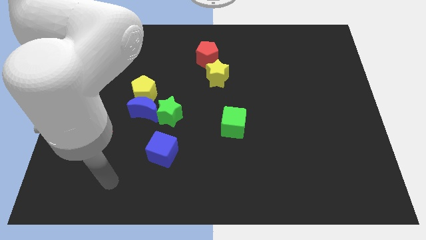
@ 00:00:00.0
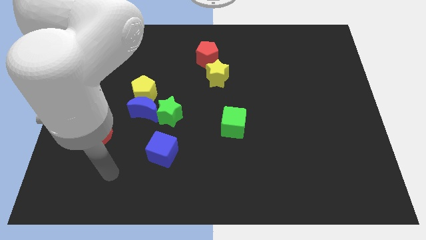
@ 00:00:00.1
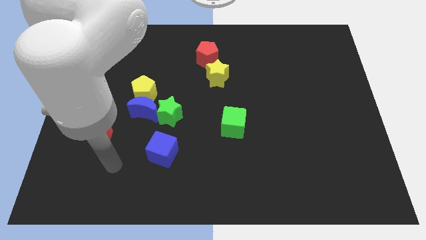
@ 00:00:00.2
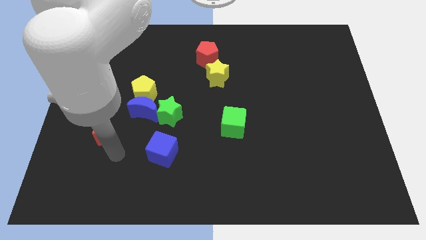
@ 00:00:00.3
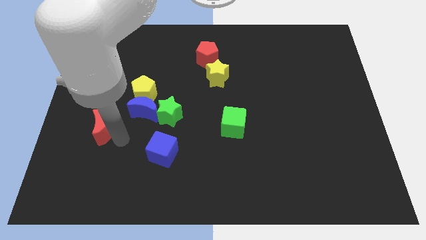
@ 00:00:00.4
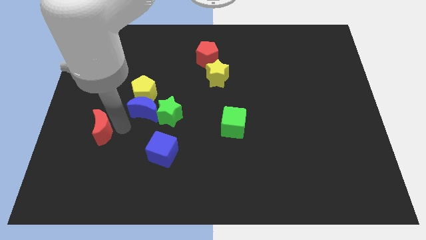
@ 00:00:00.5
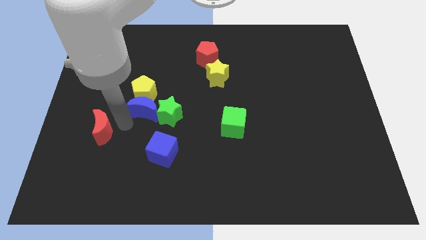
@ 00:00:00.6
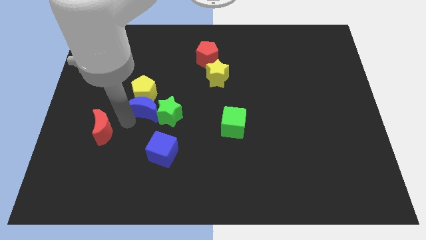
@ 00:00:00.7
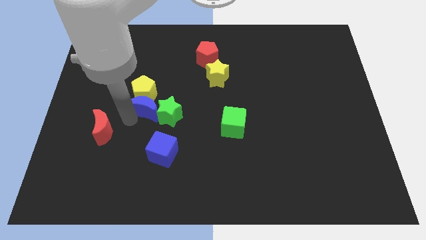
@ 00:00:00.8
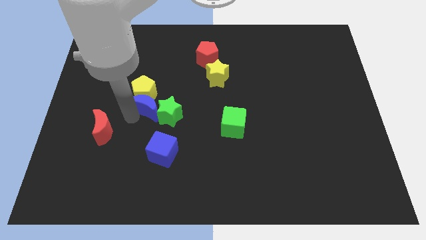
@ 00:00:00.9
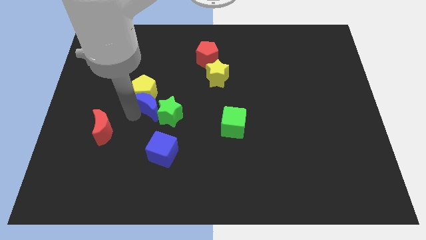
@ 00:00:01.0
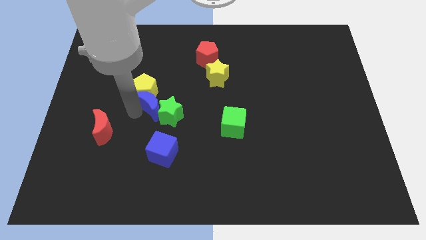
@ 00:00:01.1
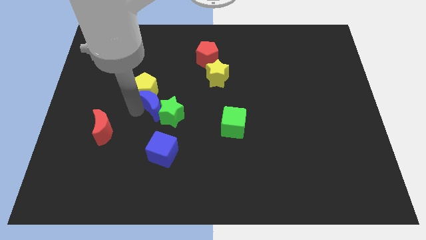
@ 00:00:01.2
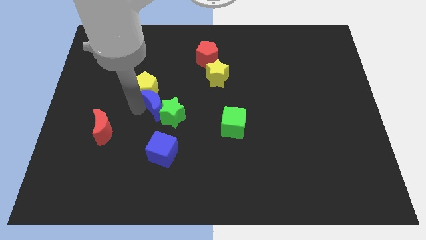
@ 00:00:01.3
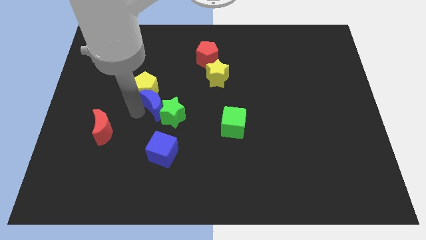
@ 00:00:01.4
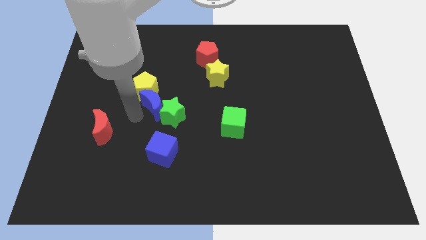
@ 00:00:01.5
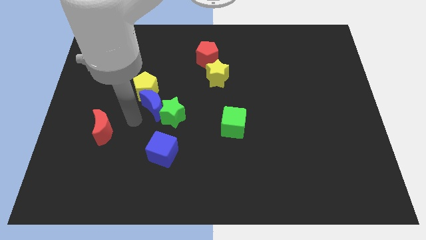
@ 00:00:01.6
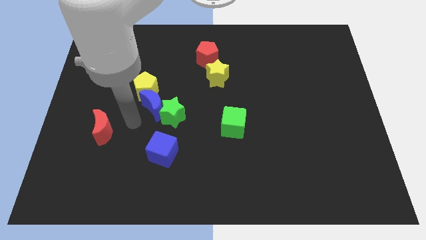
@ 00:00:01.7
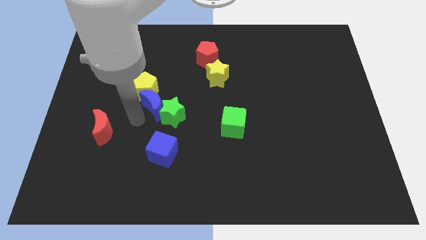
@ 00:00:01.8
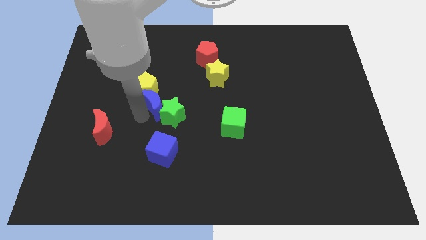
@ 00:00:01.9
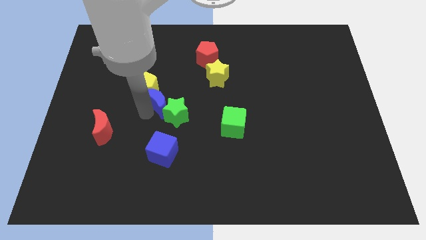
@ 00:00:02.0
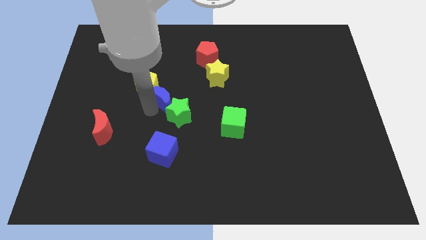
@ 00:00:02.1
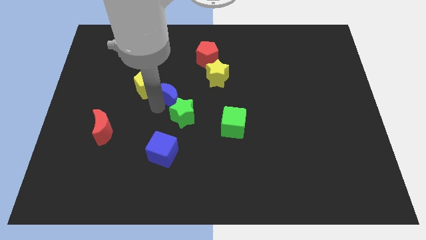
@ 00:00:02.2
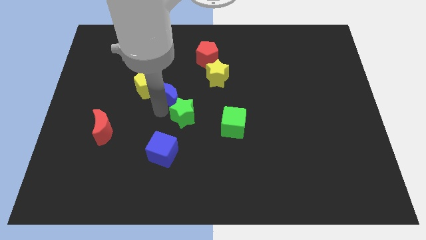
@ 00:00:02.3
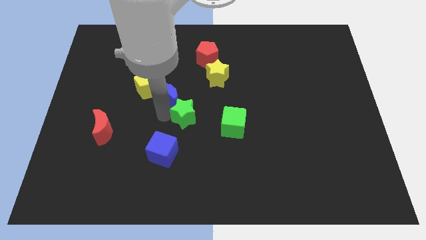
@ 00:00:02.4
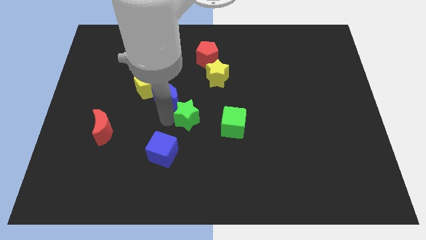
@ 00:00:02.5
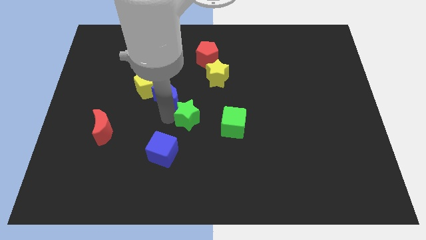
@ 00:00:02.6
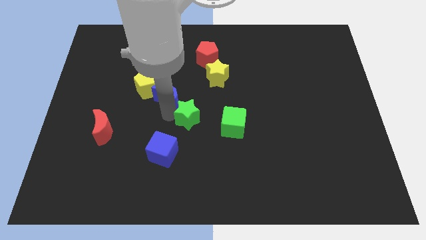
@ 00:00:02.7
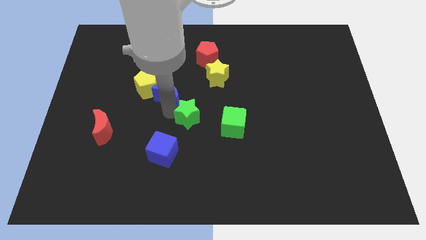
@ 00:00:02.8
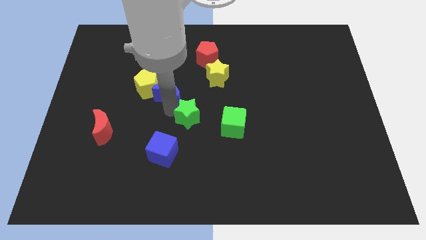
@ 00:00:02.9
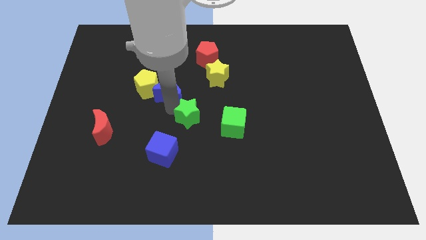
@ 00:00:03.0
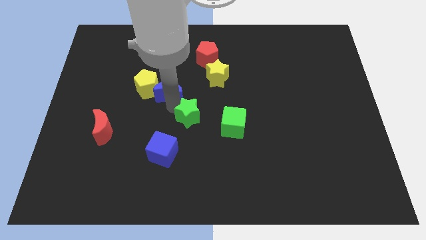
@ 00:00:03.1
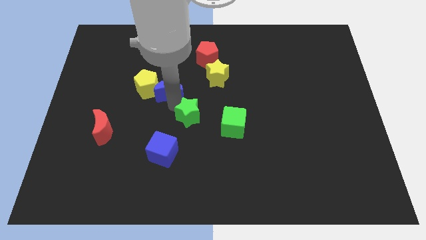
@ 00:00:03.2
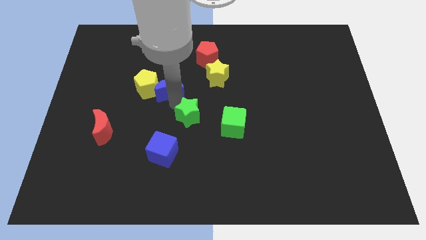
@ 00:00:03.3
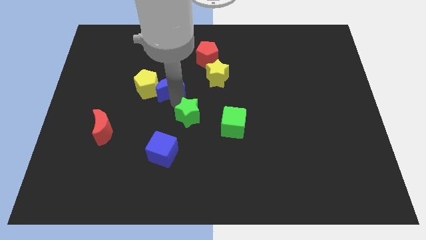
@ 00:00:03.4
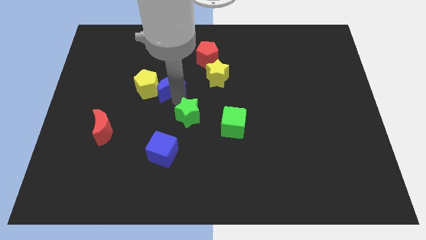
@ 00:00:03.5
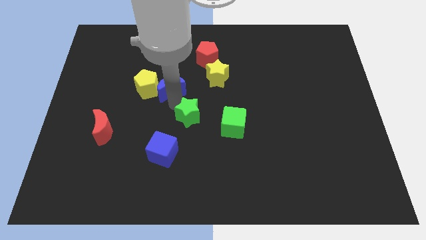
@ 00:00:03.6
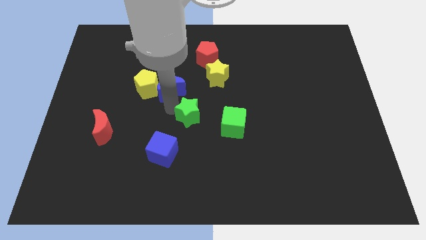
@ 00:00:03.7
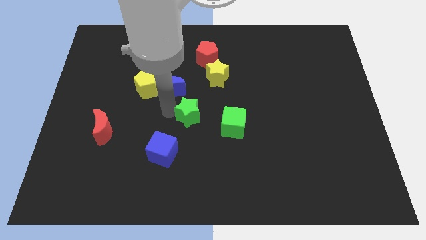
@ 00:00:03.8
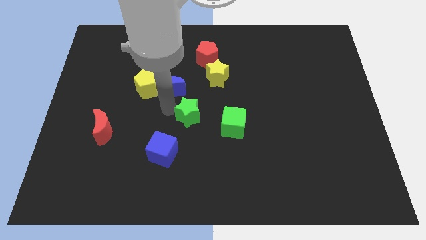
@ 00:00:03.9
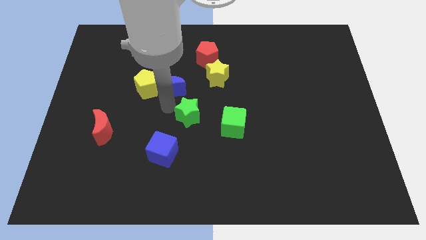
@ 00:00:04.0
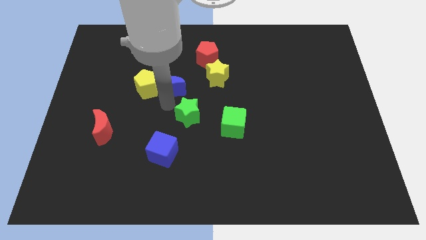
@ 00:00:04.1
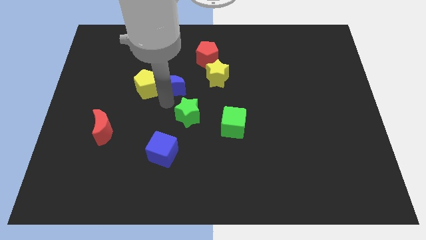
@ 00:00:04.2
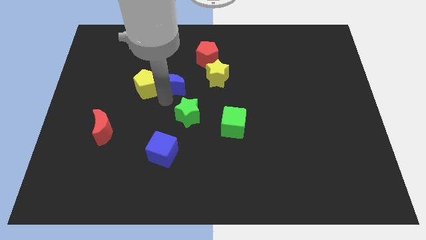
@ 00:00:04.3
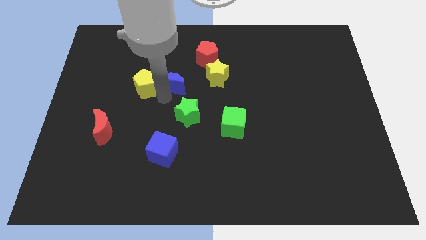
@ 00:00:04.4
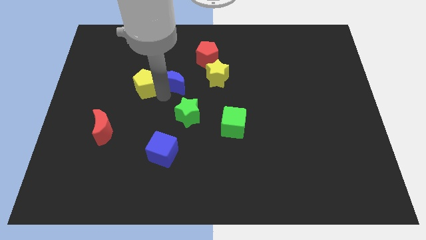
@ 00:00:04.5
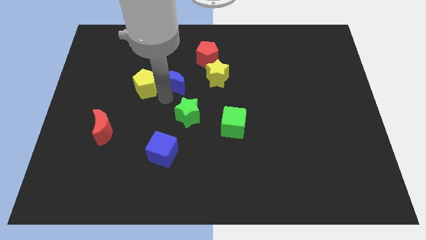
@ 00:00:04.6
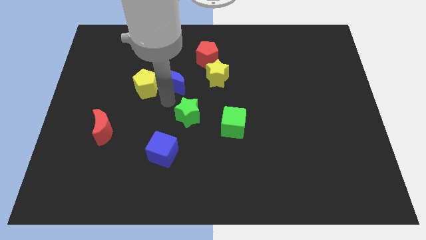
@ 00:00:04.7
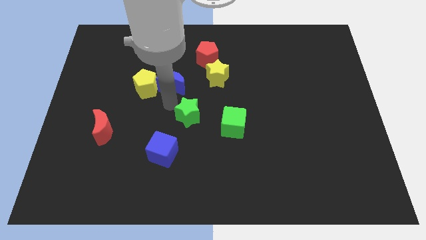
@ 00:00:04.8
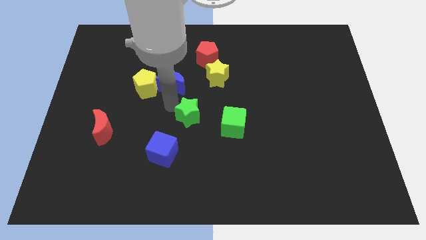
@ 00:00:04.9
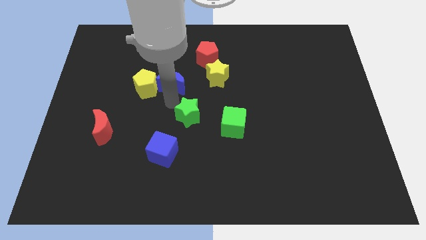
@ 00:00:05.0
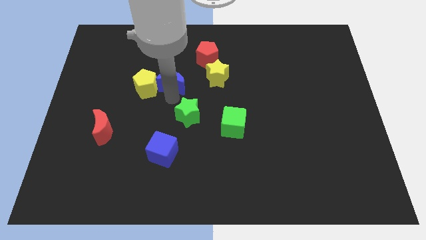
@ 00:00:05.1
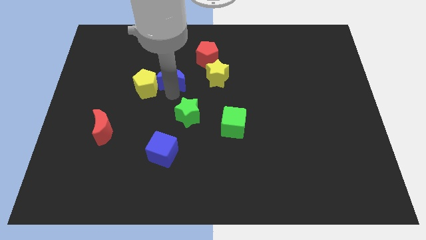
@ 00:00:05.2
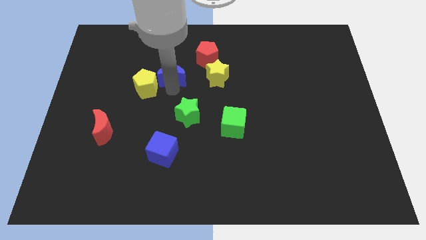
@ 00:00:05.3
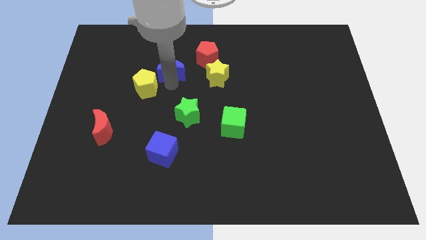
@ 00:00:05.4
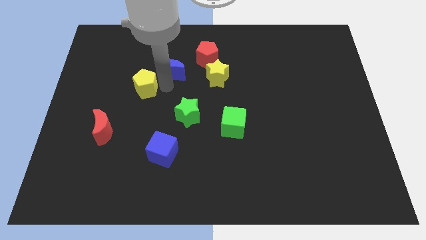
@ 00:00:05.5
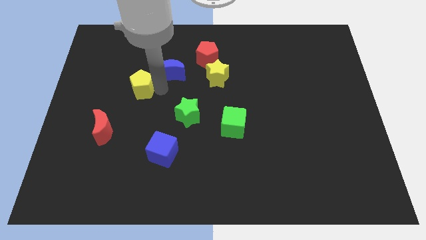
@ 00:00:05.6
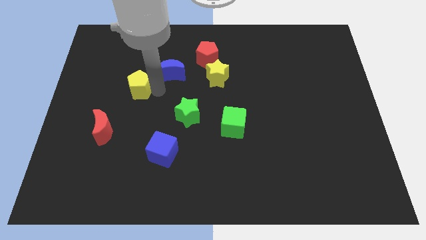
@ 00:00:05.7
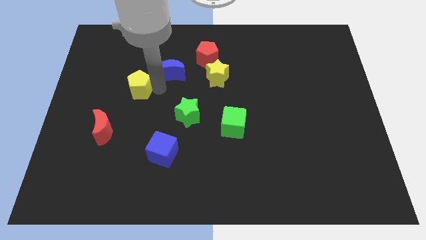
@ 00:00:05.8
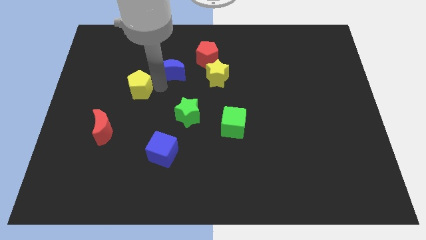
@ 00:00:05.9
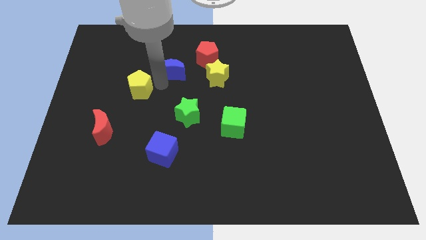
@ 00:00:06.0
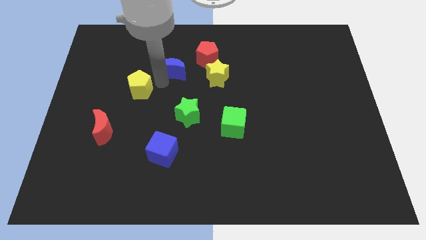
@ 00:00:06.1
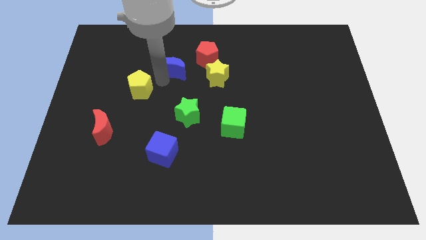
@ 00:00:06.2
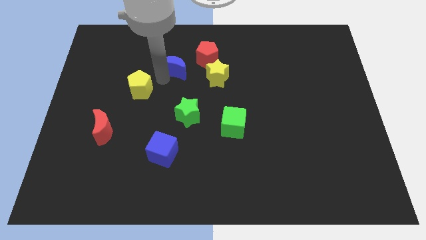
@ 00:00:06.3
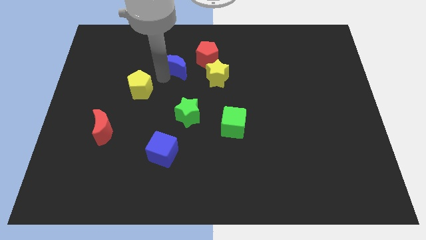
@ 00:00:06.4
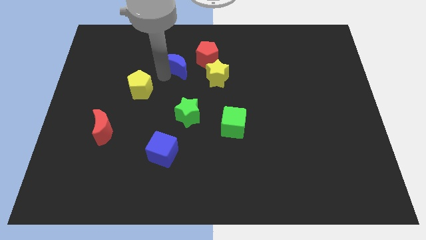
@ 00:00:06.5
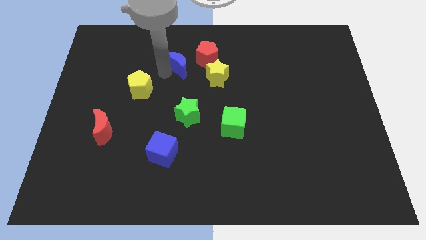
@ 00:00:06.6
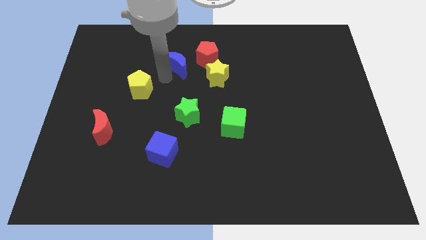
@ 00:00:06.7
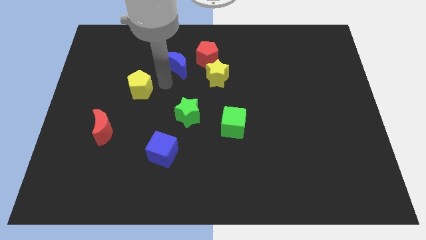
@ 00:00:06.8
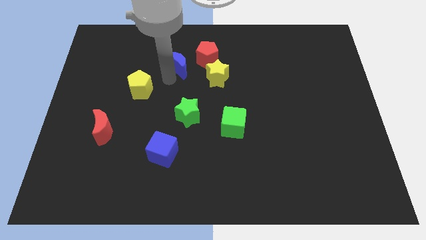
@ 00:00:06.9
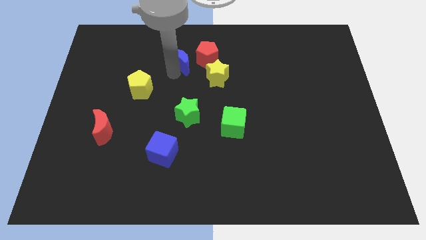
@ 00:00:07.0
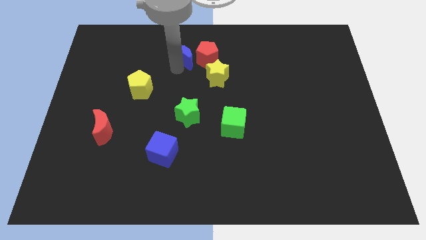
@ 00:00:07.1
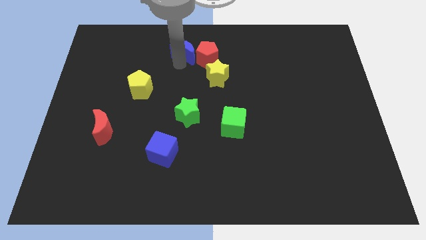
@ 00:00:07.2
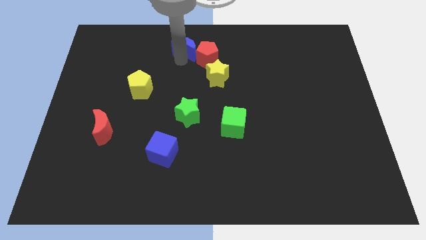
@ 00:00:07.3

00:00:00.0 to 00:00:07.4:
move the blue moon to the top
